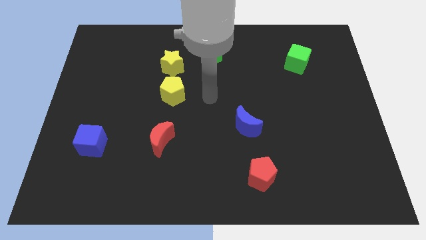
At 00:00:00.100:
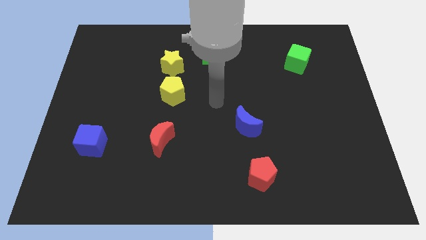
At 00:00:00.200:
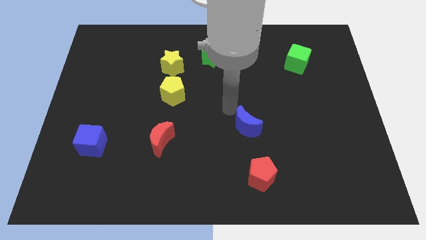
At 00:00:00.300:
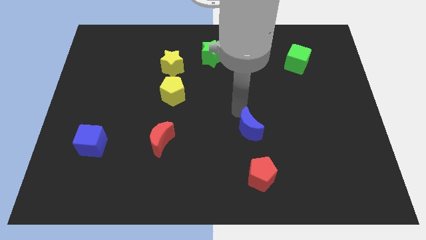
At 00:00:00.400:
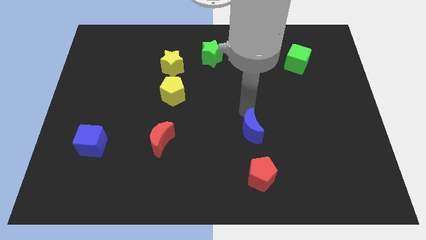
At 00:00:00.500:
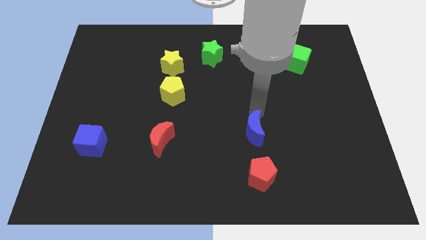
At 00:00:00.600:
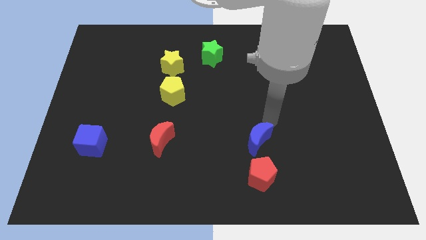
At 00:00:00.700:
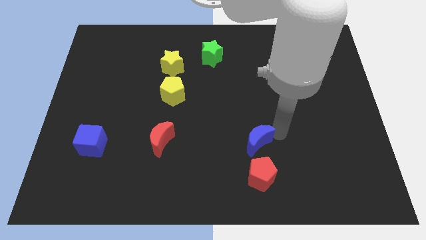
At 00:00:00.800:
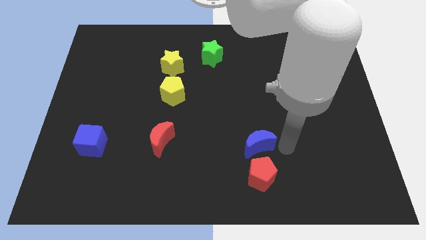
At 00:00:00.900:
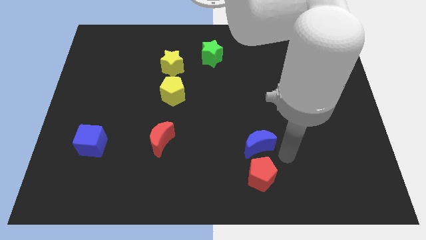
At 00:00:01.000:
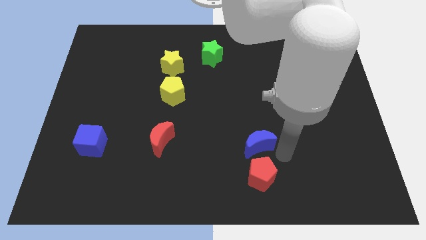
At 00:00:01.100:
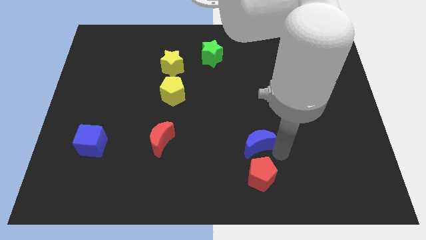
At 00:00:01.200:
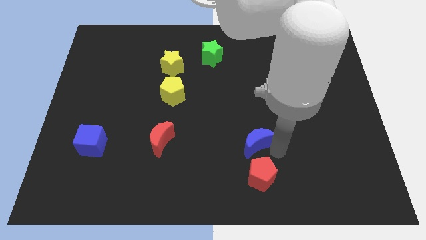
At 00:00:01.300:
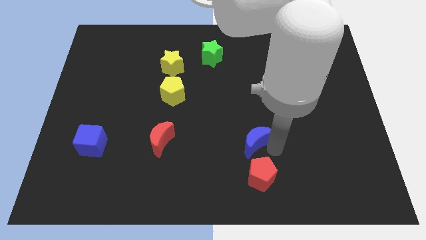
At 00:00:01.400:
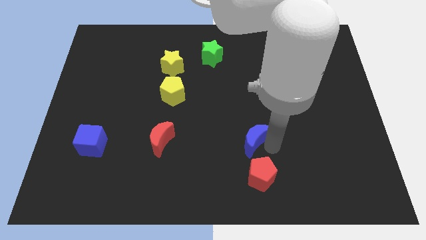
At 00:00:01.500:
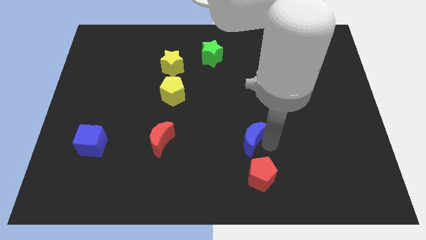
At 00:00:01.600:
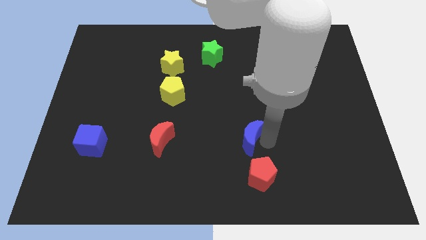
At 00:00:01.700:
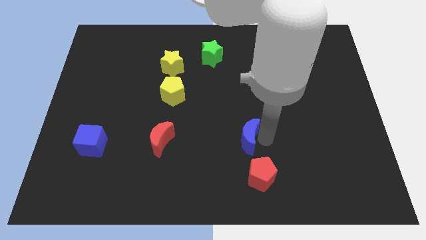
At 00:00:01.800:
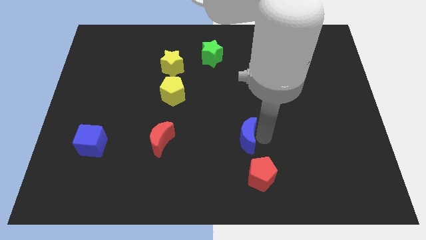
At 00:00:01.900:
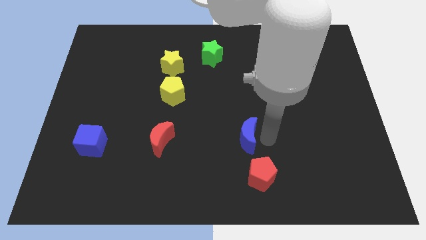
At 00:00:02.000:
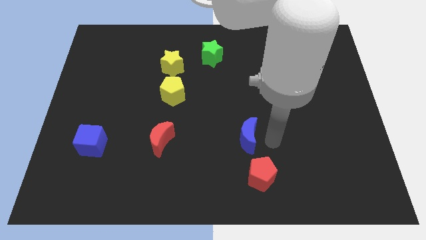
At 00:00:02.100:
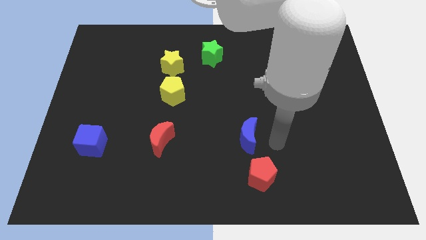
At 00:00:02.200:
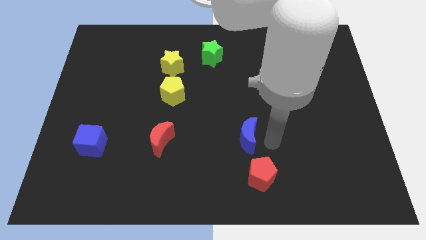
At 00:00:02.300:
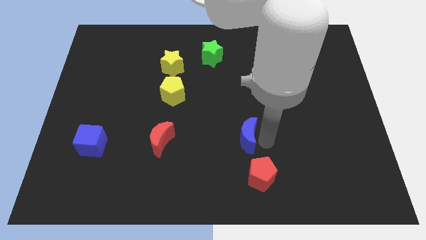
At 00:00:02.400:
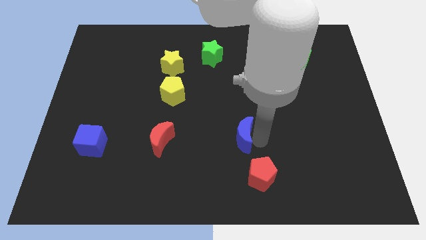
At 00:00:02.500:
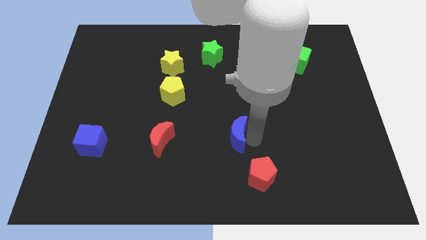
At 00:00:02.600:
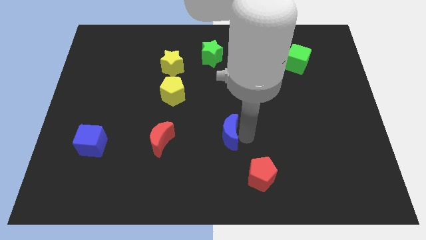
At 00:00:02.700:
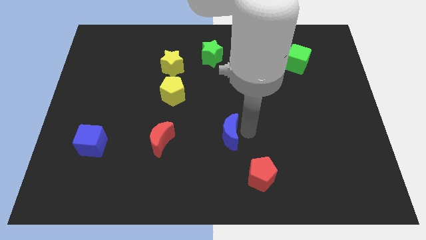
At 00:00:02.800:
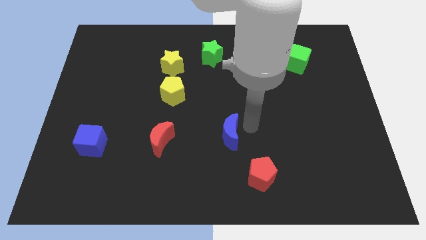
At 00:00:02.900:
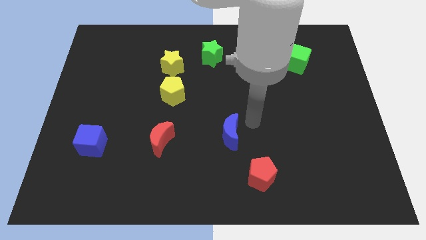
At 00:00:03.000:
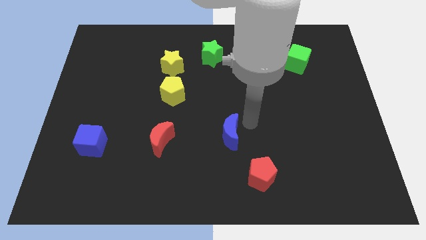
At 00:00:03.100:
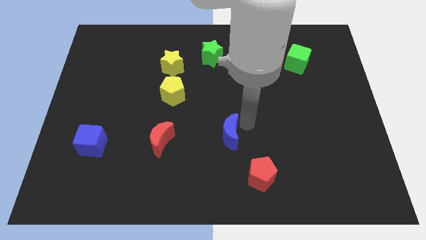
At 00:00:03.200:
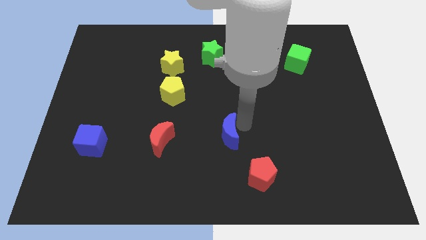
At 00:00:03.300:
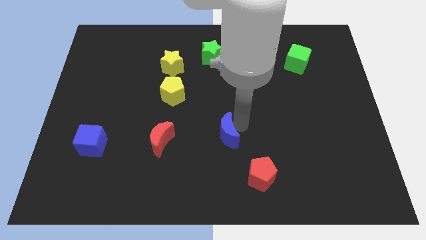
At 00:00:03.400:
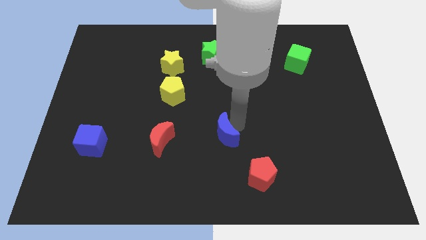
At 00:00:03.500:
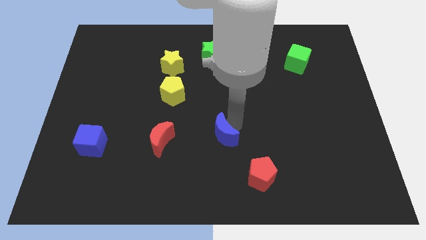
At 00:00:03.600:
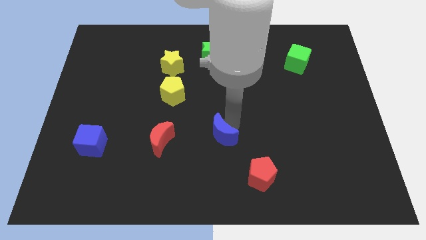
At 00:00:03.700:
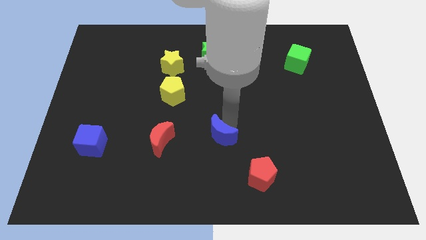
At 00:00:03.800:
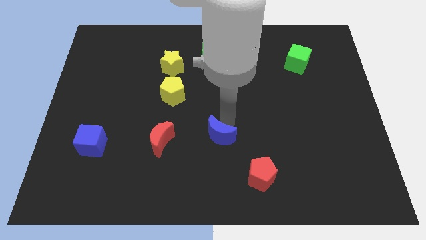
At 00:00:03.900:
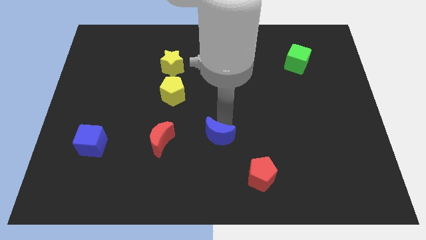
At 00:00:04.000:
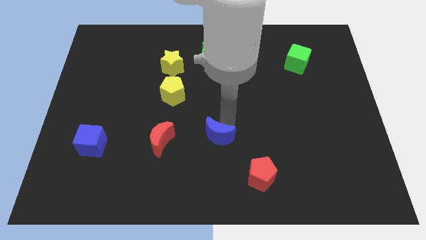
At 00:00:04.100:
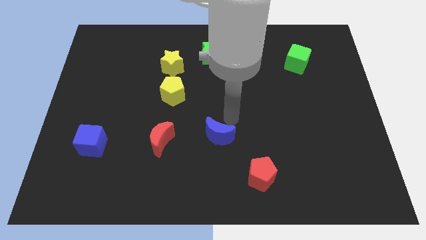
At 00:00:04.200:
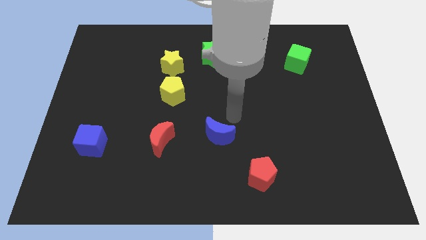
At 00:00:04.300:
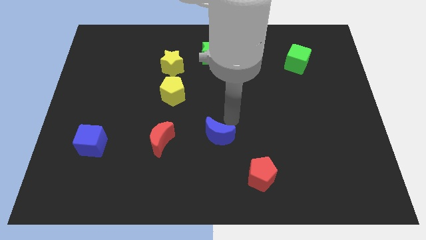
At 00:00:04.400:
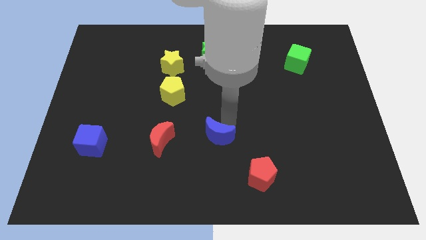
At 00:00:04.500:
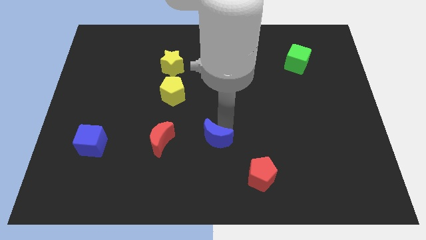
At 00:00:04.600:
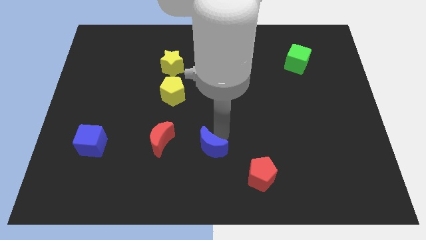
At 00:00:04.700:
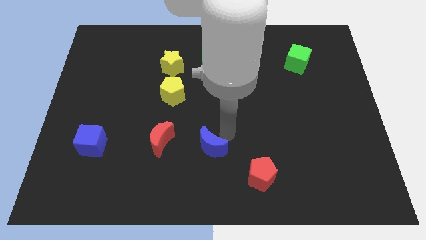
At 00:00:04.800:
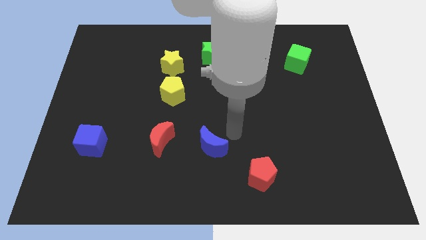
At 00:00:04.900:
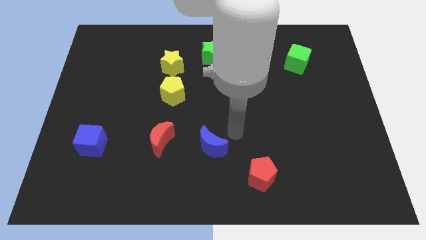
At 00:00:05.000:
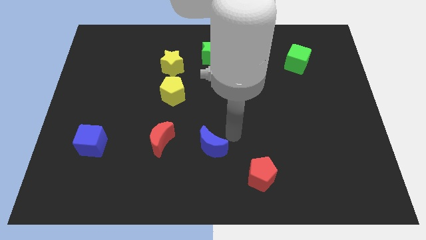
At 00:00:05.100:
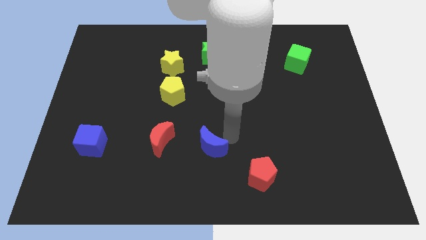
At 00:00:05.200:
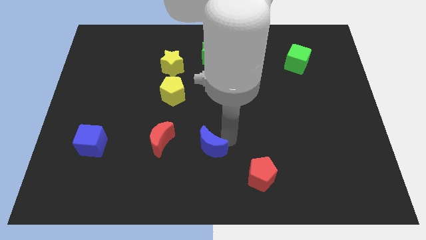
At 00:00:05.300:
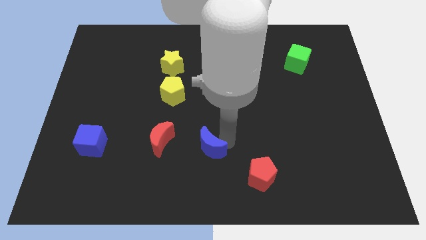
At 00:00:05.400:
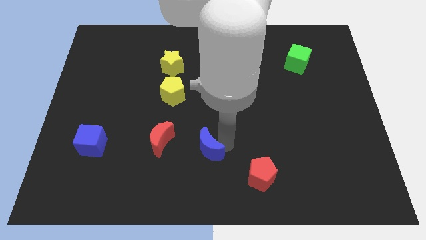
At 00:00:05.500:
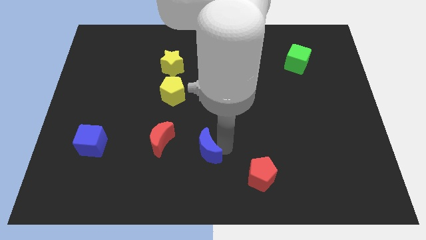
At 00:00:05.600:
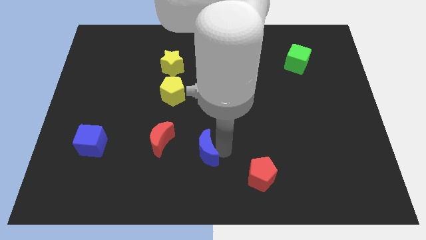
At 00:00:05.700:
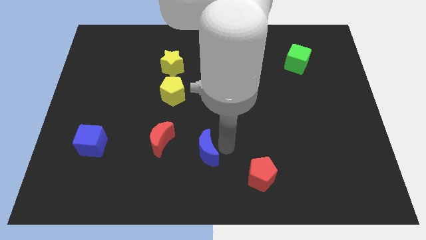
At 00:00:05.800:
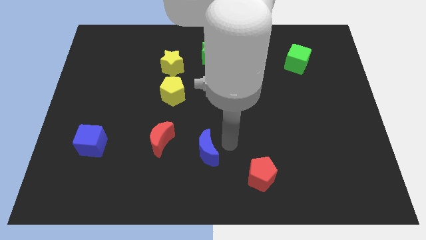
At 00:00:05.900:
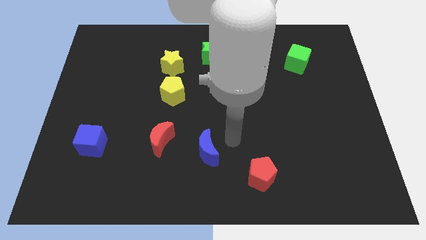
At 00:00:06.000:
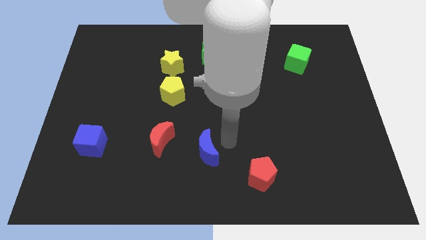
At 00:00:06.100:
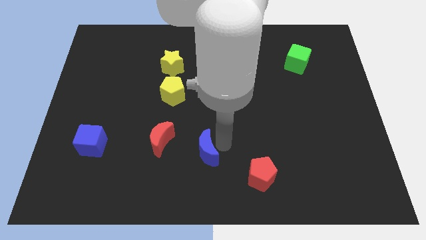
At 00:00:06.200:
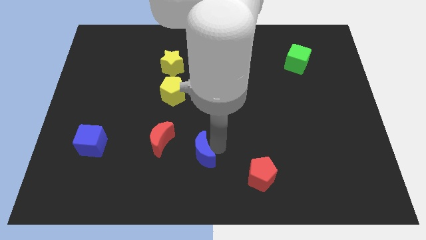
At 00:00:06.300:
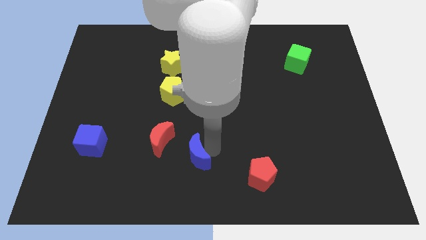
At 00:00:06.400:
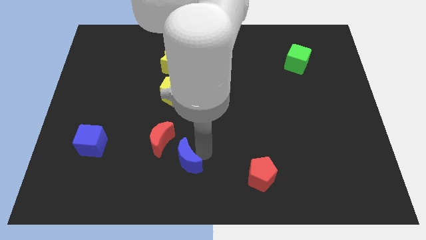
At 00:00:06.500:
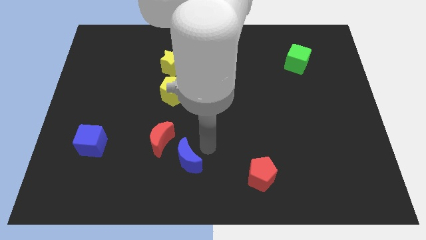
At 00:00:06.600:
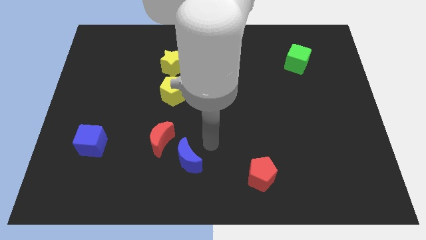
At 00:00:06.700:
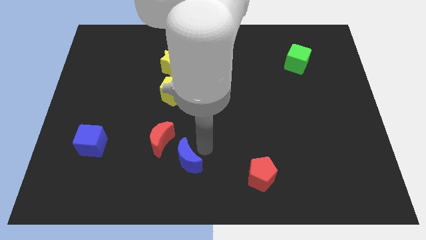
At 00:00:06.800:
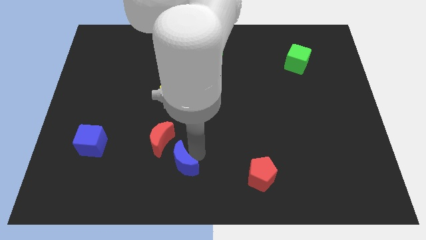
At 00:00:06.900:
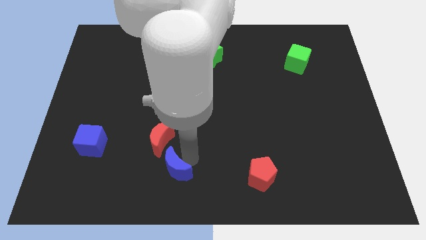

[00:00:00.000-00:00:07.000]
slide the blue moon to the bottom side of the red moon
